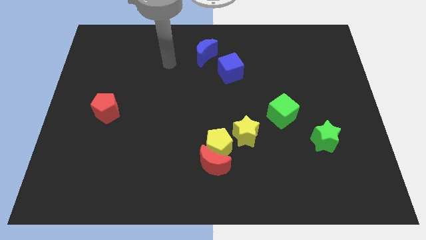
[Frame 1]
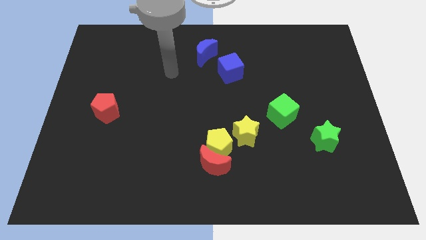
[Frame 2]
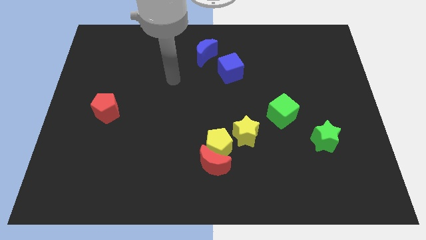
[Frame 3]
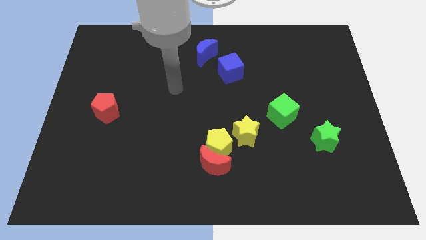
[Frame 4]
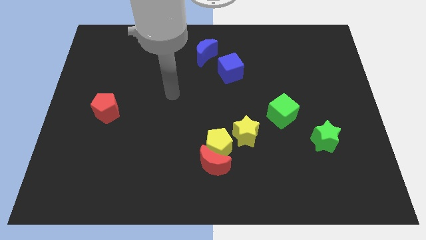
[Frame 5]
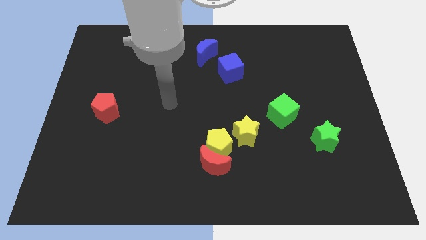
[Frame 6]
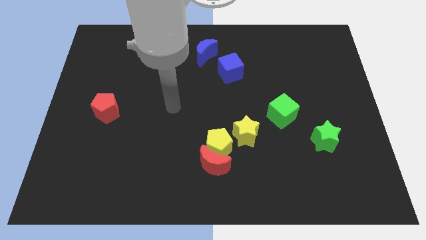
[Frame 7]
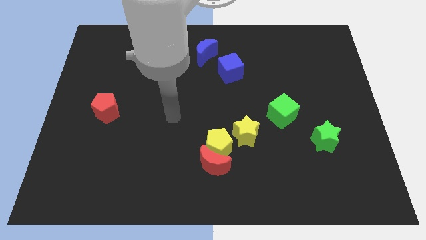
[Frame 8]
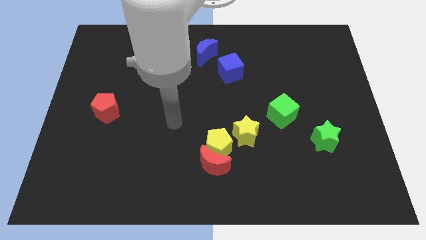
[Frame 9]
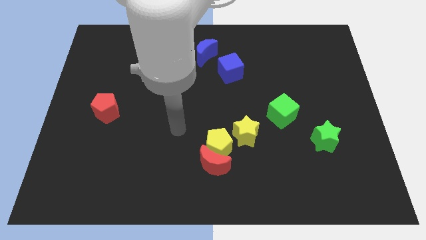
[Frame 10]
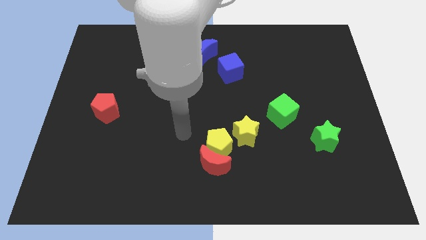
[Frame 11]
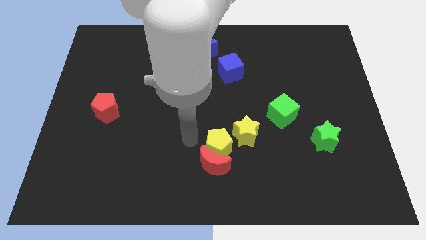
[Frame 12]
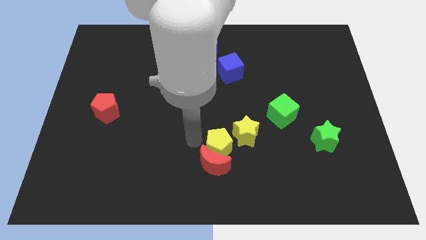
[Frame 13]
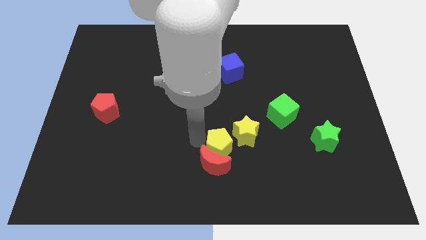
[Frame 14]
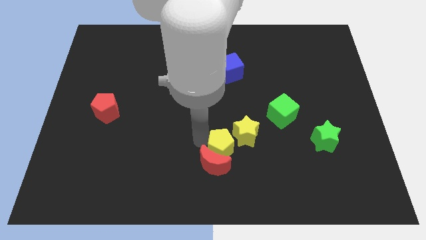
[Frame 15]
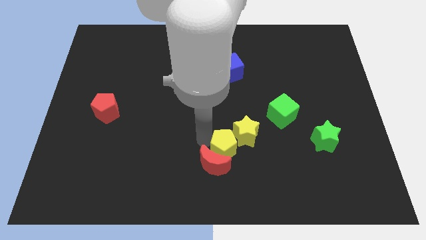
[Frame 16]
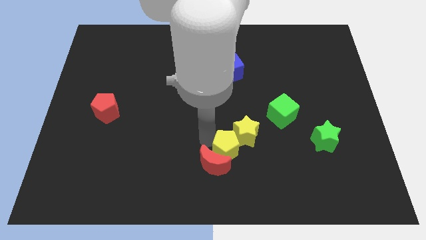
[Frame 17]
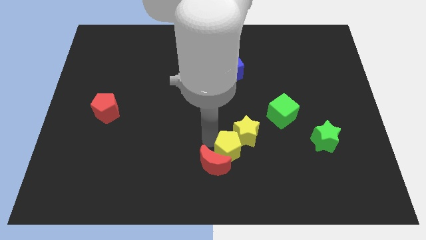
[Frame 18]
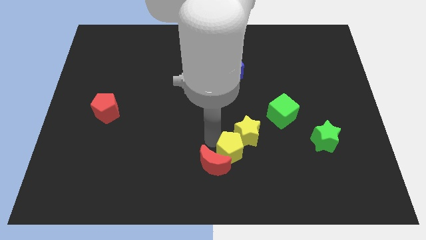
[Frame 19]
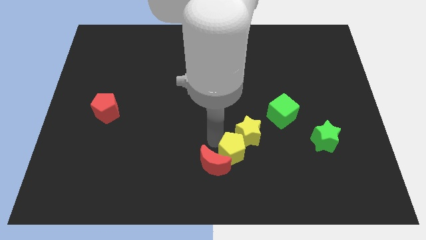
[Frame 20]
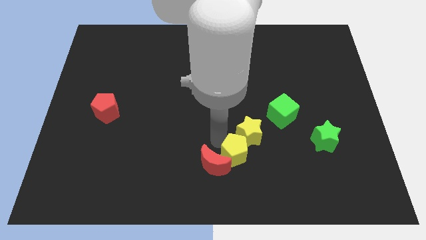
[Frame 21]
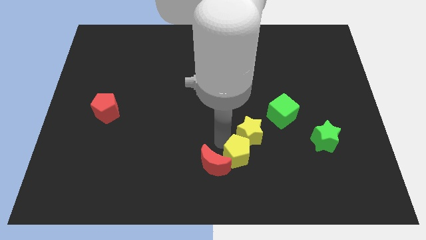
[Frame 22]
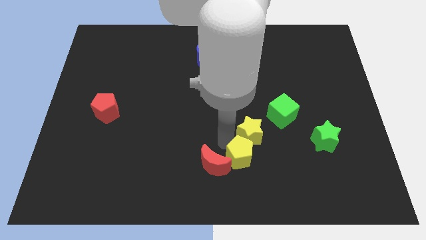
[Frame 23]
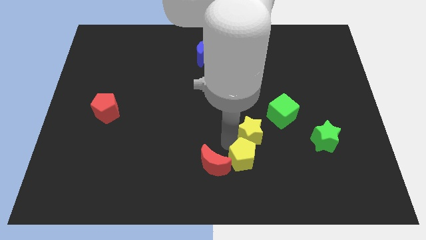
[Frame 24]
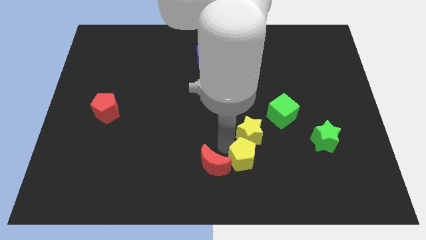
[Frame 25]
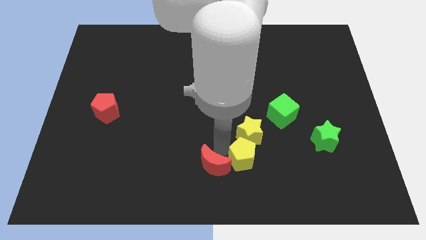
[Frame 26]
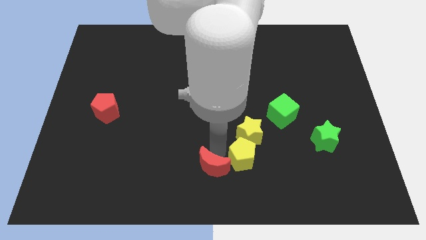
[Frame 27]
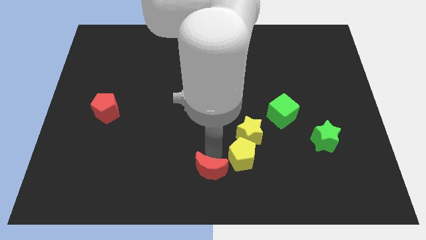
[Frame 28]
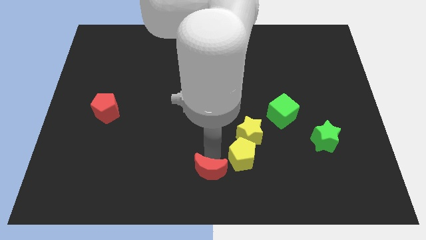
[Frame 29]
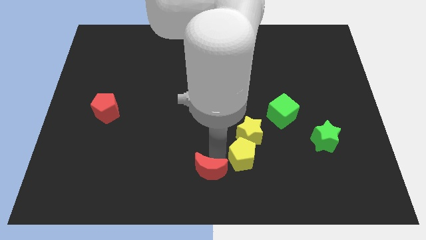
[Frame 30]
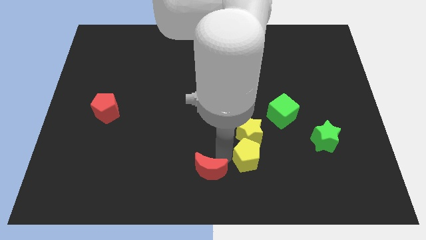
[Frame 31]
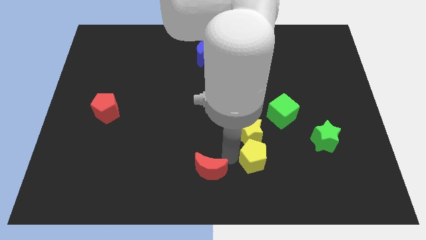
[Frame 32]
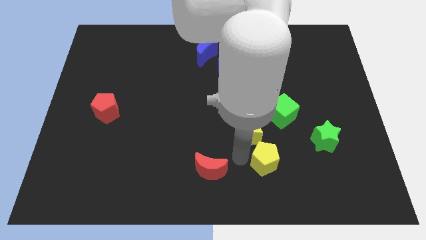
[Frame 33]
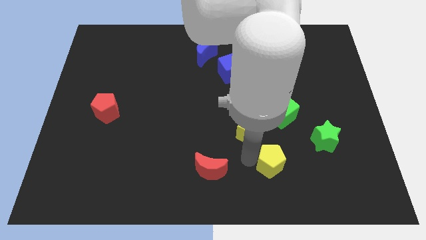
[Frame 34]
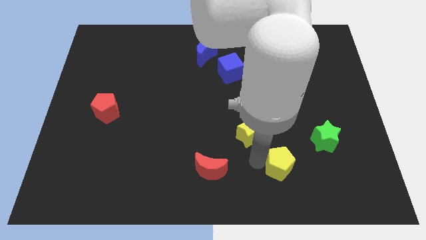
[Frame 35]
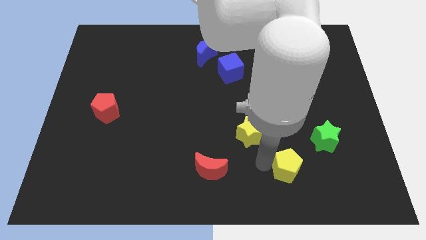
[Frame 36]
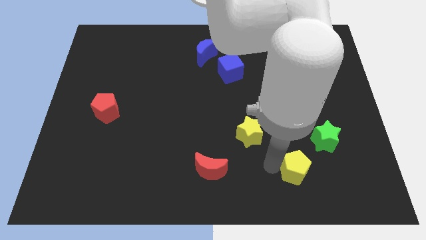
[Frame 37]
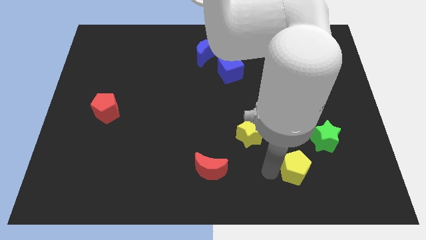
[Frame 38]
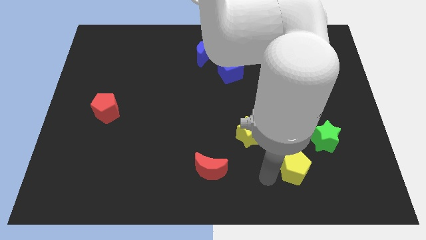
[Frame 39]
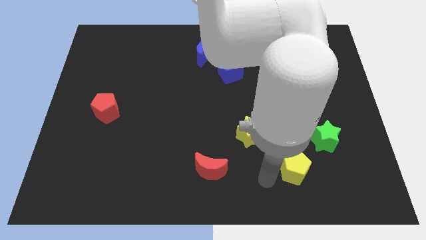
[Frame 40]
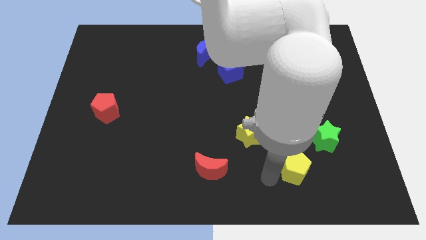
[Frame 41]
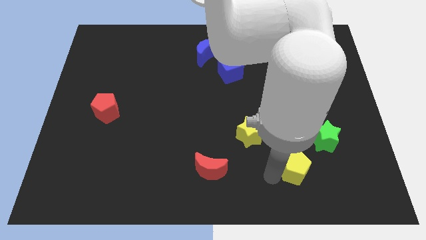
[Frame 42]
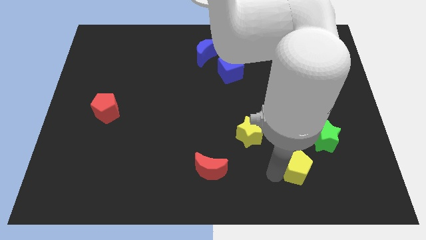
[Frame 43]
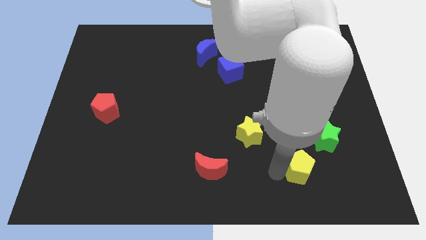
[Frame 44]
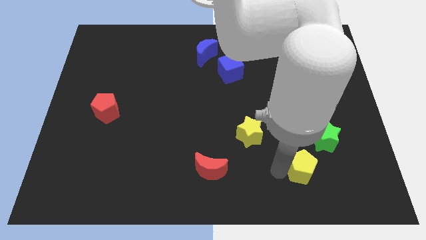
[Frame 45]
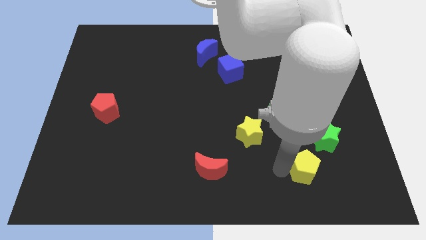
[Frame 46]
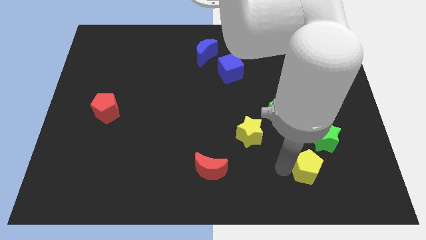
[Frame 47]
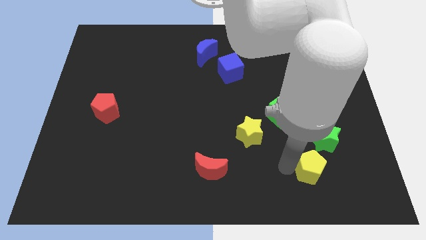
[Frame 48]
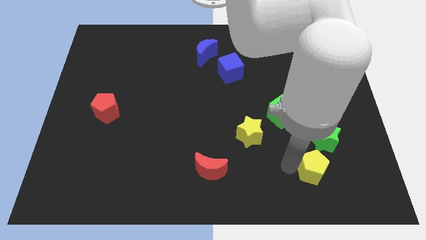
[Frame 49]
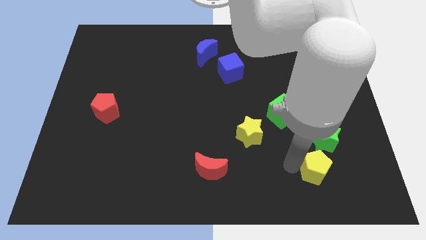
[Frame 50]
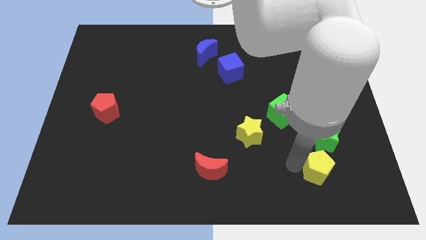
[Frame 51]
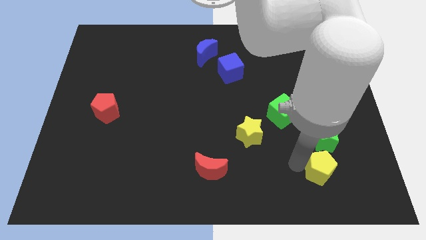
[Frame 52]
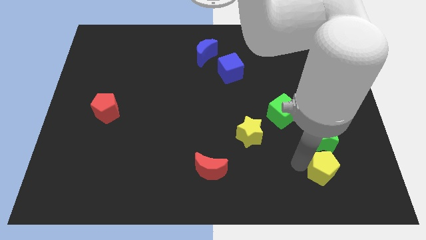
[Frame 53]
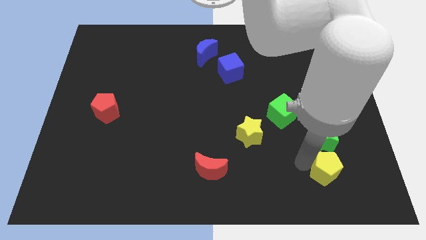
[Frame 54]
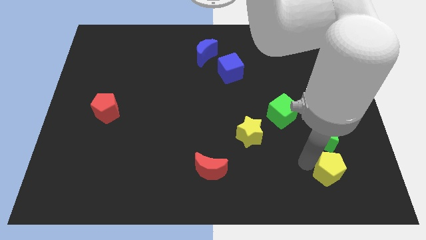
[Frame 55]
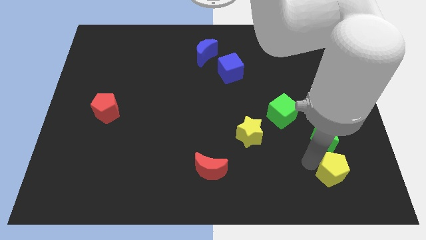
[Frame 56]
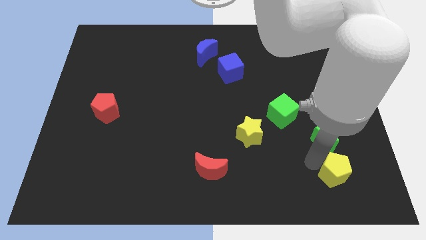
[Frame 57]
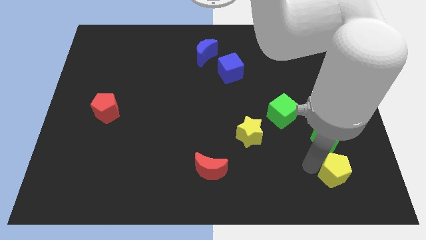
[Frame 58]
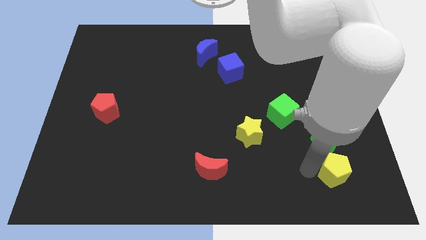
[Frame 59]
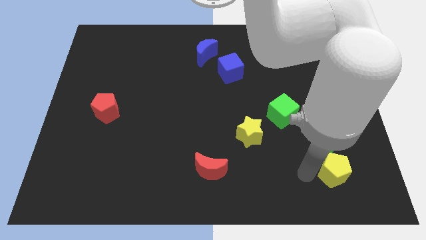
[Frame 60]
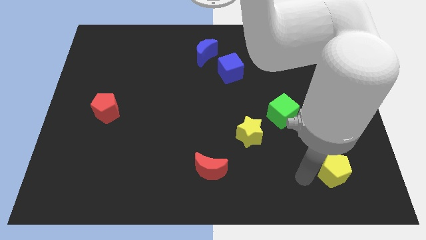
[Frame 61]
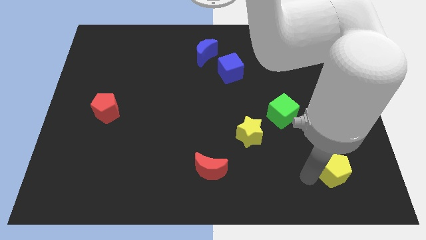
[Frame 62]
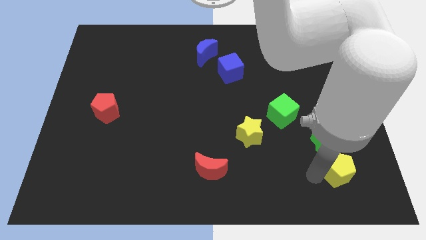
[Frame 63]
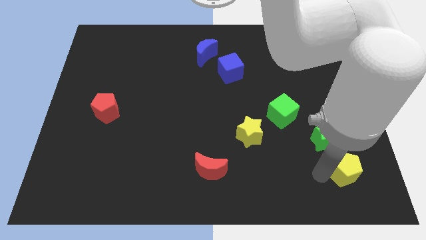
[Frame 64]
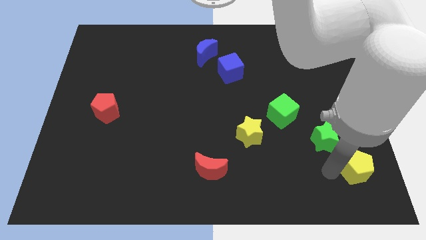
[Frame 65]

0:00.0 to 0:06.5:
slide the yellow pentagon to the bottom right of the board

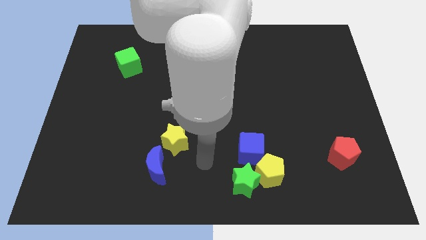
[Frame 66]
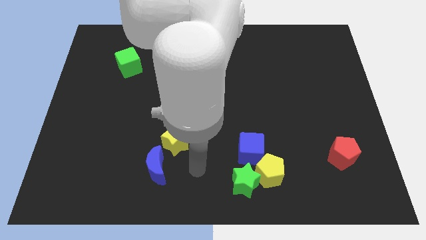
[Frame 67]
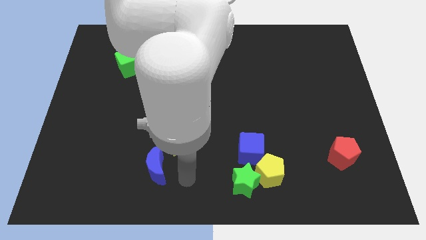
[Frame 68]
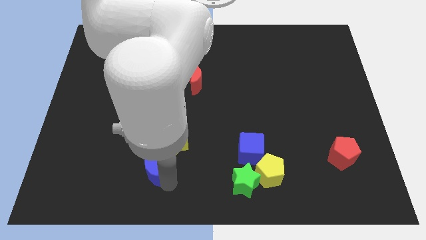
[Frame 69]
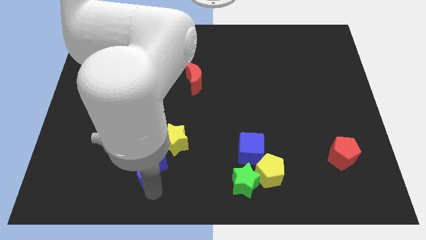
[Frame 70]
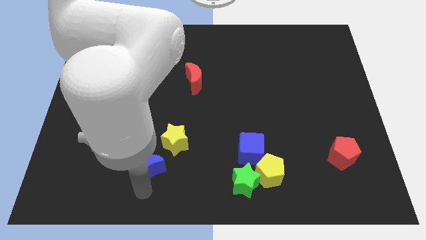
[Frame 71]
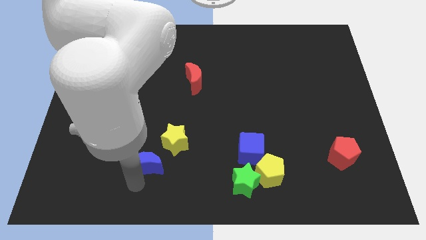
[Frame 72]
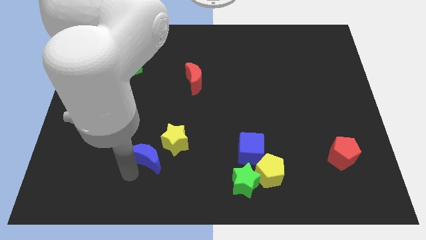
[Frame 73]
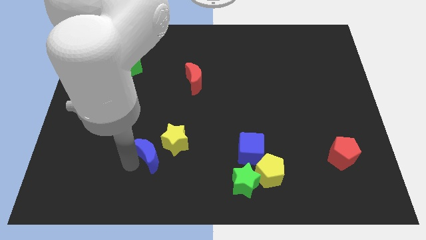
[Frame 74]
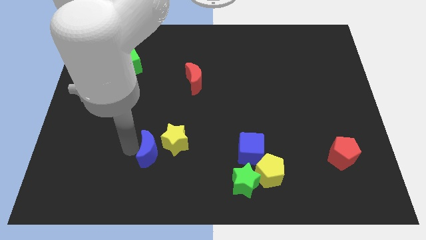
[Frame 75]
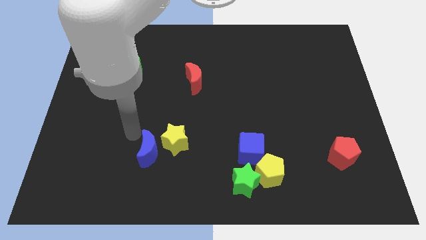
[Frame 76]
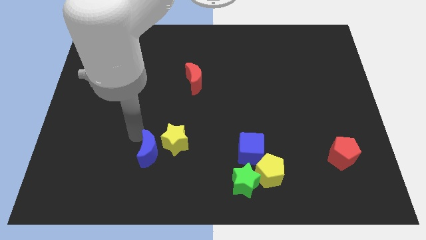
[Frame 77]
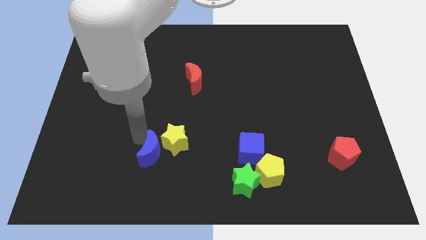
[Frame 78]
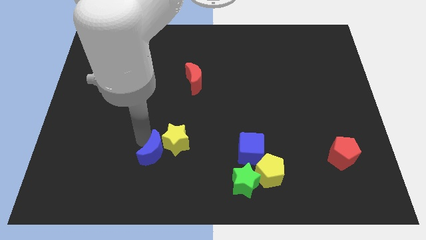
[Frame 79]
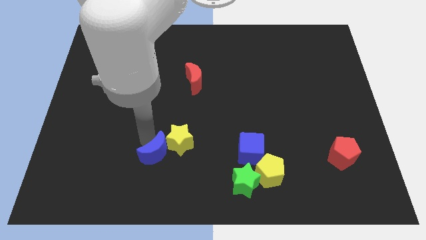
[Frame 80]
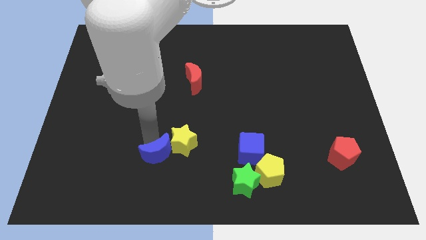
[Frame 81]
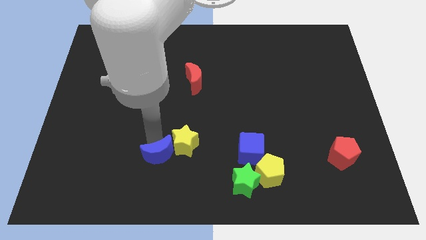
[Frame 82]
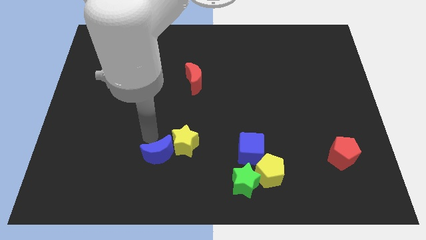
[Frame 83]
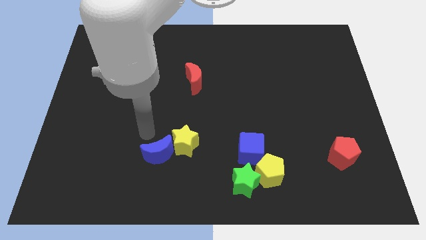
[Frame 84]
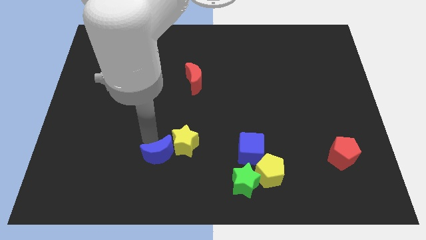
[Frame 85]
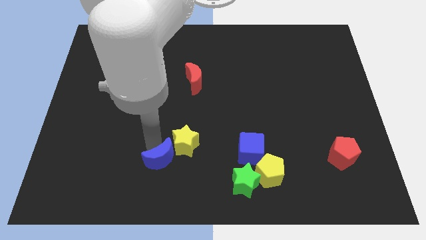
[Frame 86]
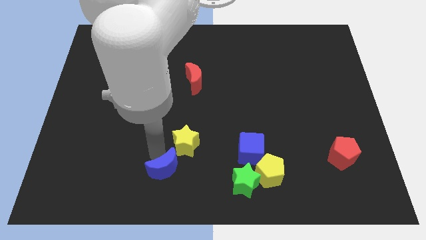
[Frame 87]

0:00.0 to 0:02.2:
slide the blue moon to the bottom side

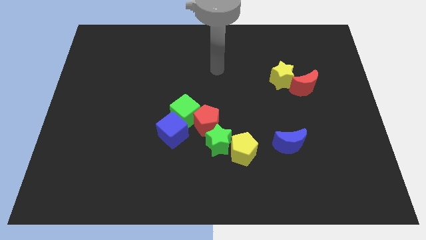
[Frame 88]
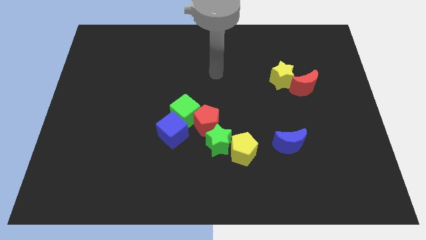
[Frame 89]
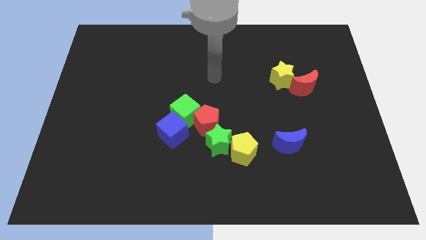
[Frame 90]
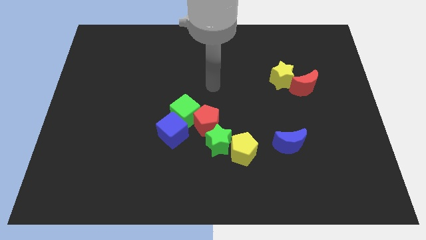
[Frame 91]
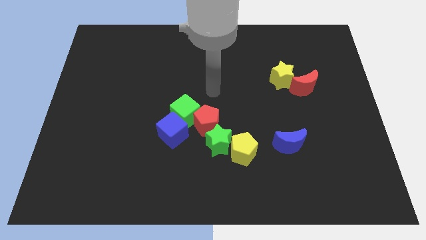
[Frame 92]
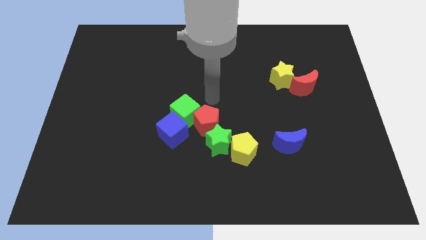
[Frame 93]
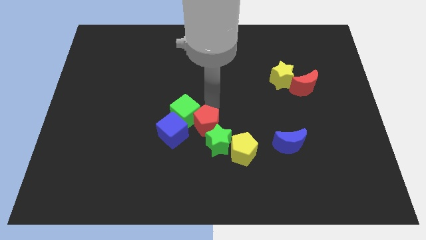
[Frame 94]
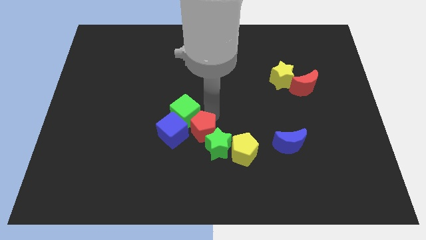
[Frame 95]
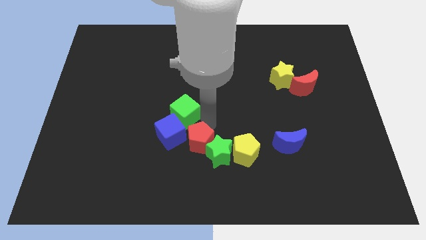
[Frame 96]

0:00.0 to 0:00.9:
move the green star to the bottom side
